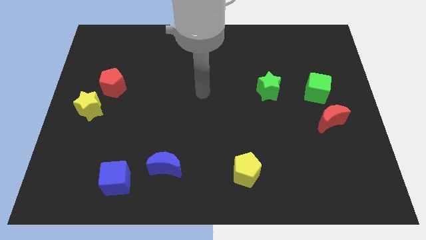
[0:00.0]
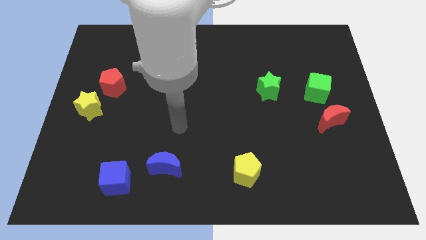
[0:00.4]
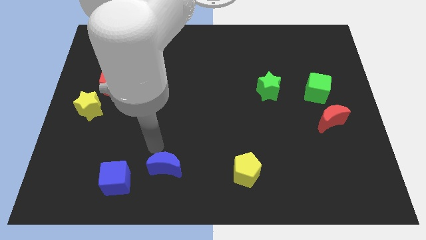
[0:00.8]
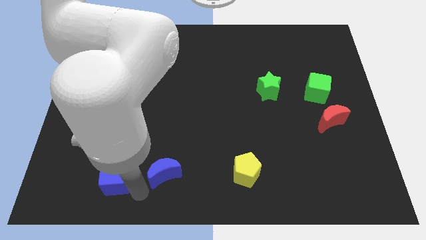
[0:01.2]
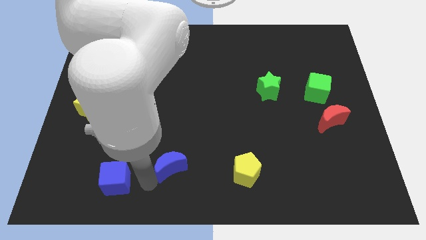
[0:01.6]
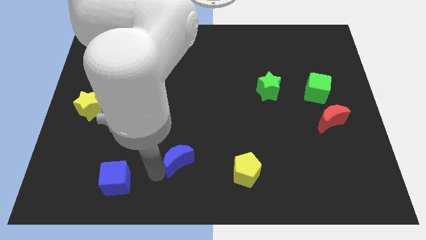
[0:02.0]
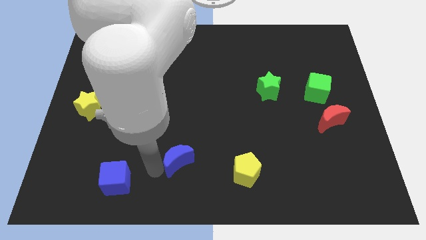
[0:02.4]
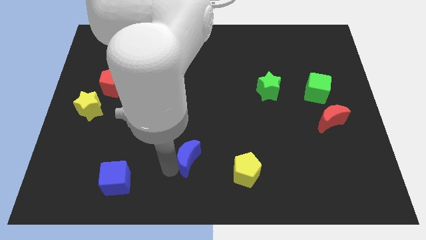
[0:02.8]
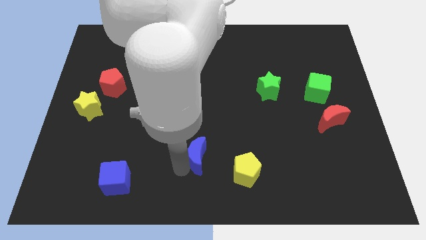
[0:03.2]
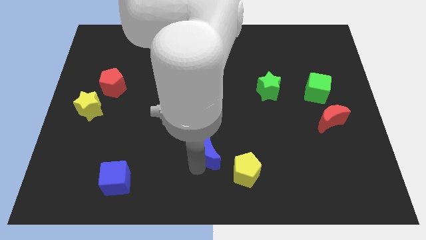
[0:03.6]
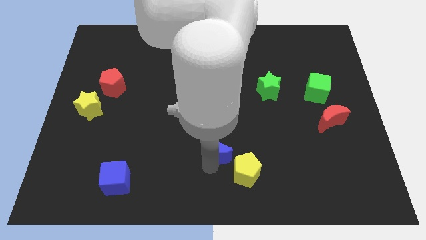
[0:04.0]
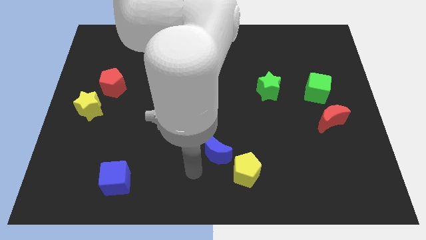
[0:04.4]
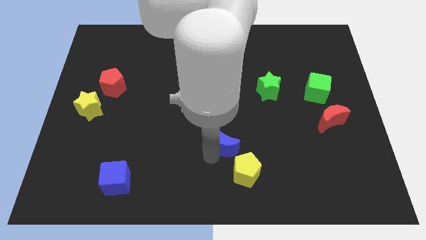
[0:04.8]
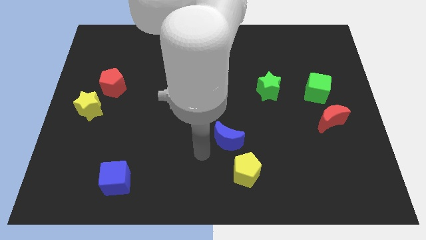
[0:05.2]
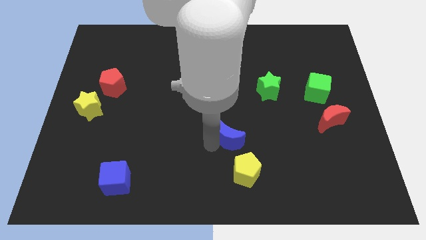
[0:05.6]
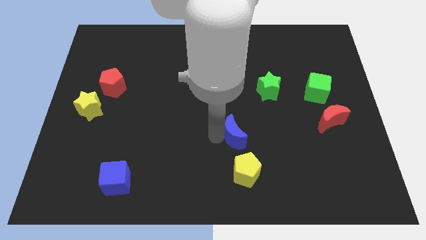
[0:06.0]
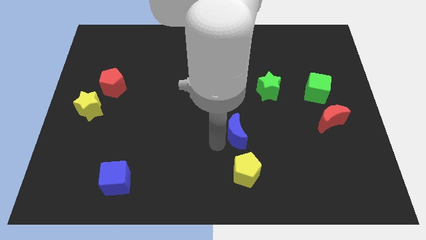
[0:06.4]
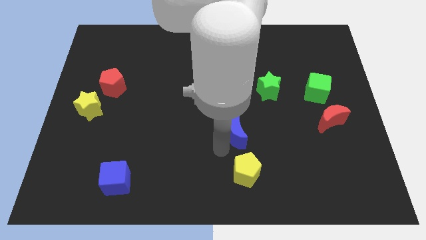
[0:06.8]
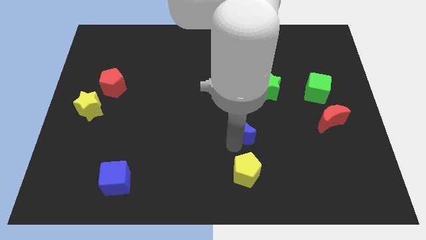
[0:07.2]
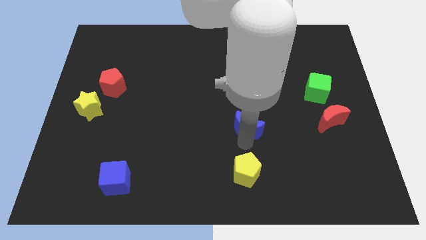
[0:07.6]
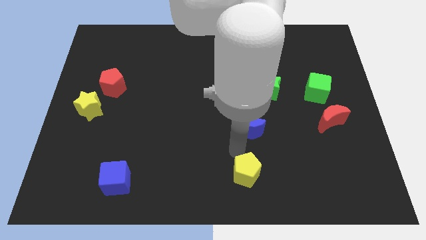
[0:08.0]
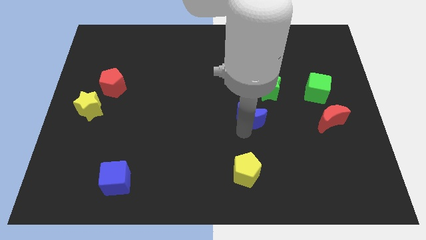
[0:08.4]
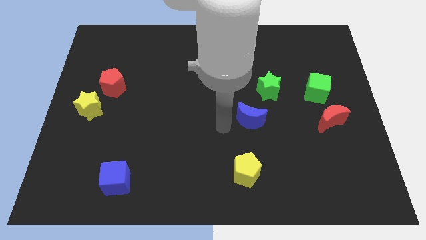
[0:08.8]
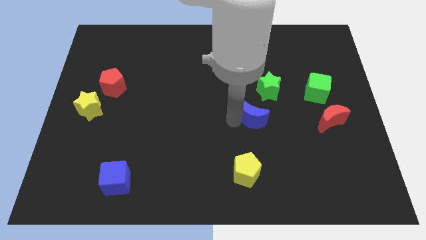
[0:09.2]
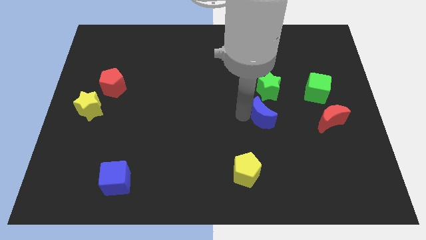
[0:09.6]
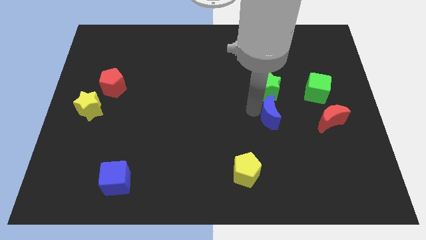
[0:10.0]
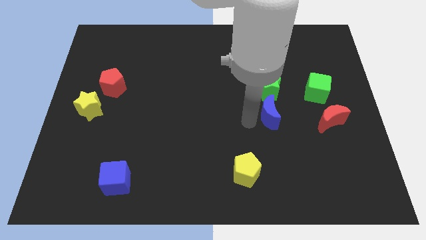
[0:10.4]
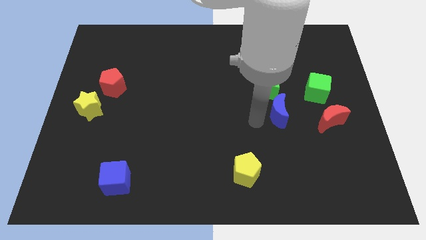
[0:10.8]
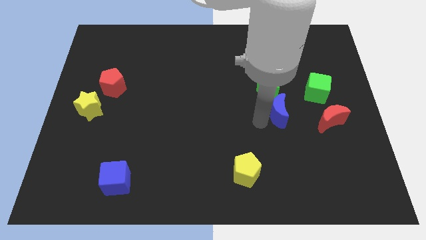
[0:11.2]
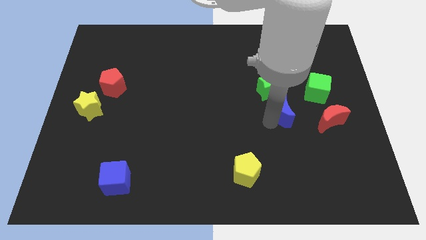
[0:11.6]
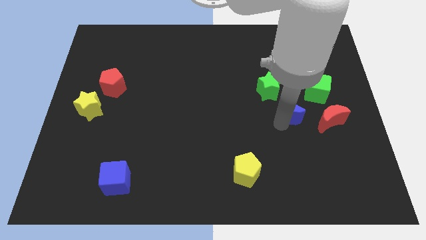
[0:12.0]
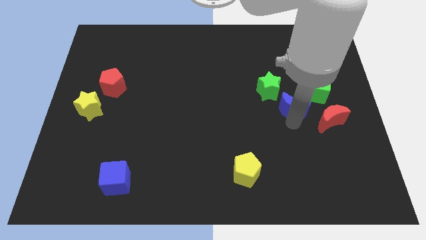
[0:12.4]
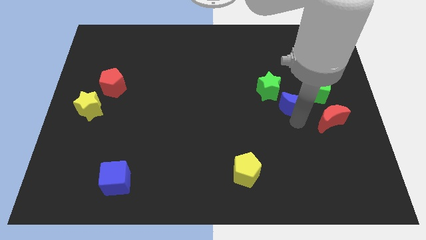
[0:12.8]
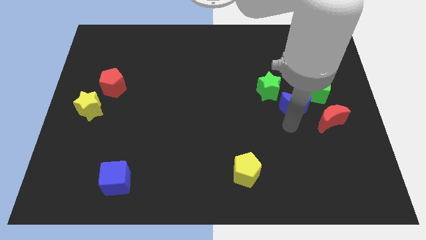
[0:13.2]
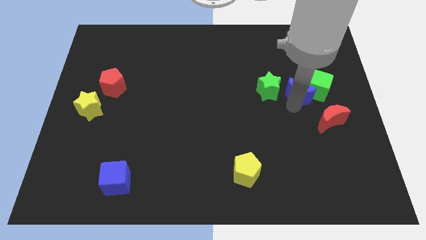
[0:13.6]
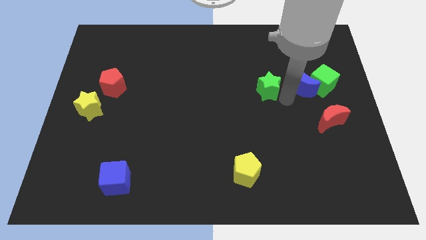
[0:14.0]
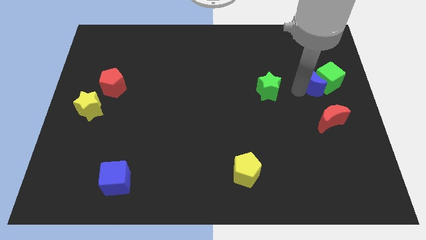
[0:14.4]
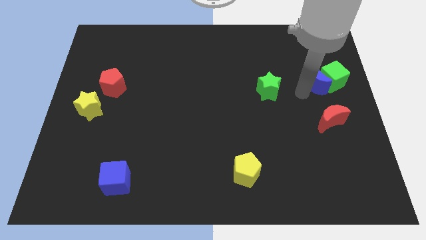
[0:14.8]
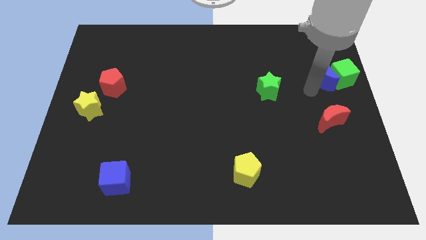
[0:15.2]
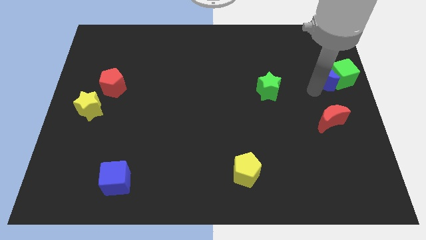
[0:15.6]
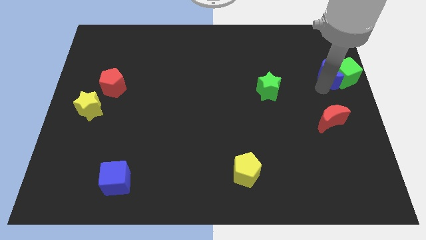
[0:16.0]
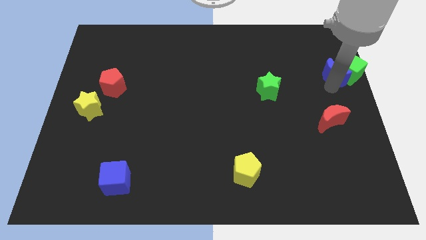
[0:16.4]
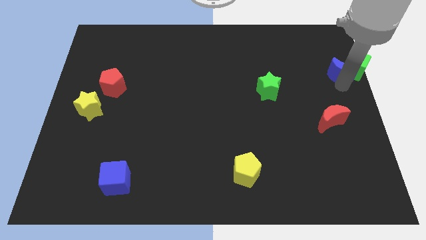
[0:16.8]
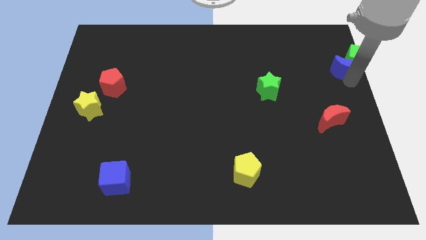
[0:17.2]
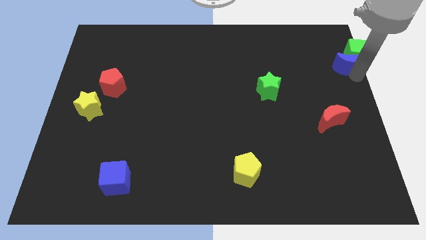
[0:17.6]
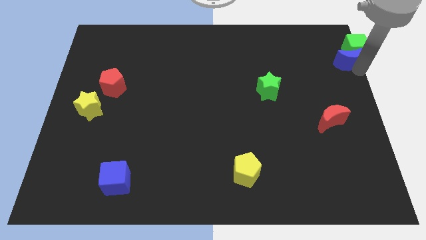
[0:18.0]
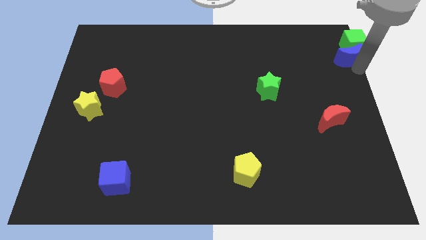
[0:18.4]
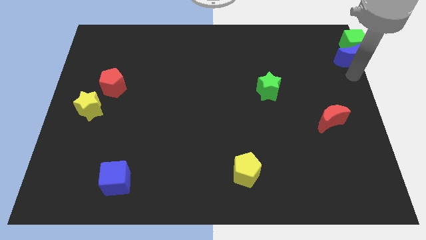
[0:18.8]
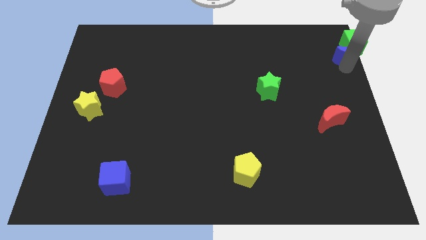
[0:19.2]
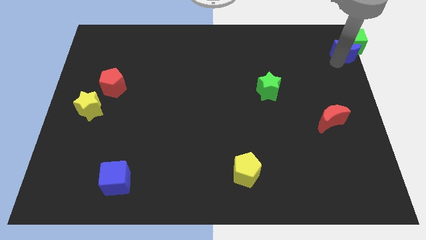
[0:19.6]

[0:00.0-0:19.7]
slide the blue moon to the top right

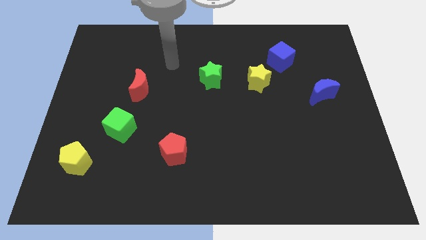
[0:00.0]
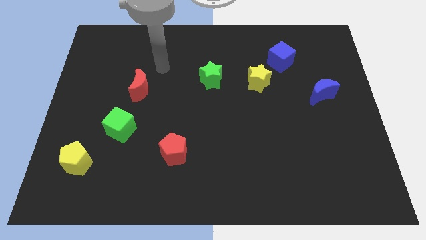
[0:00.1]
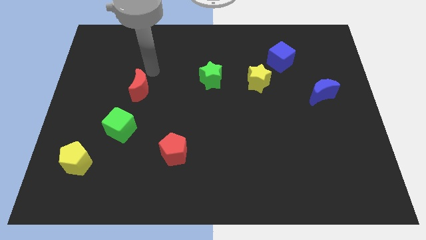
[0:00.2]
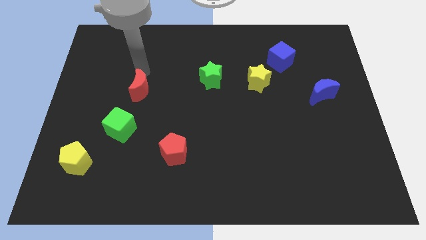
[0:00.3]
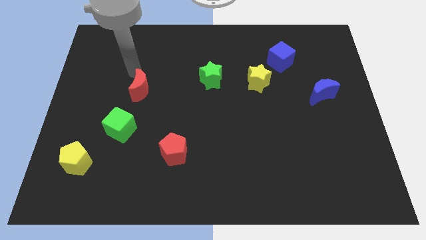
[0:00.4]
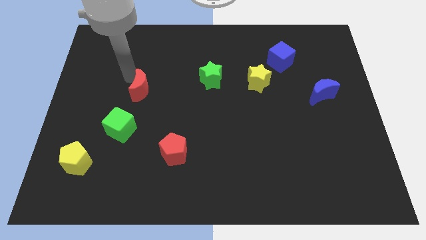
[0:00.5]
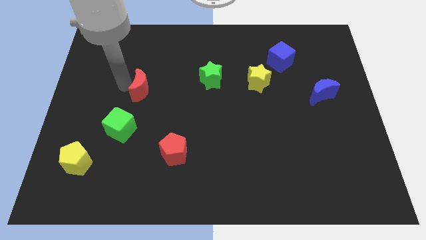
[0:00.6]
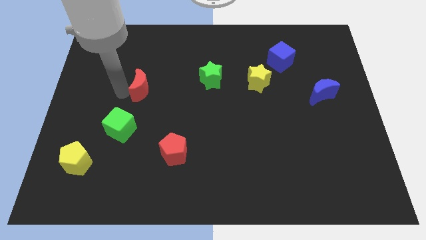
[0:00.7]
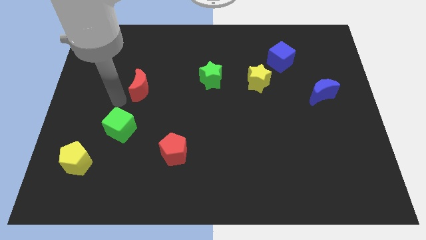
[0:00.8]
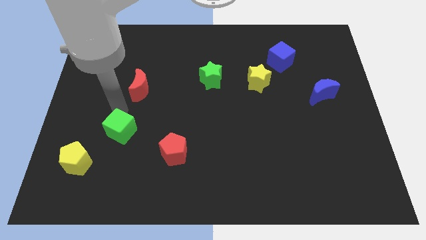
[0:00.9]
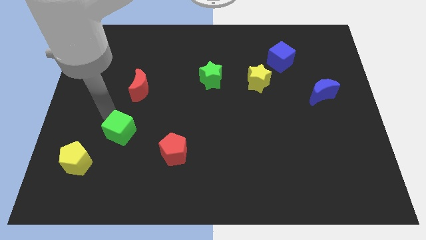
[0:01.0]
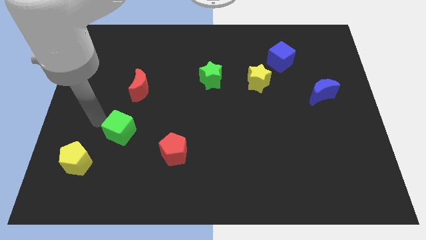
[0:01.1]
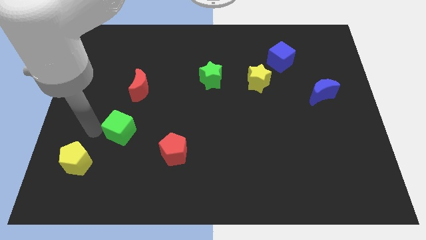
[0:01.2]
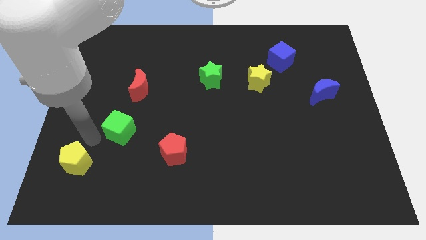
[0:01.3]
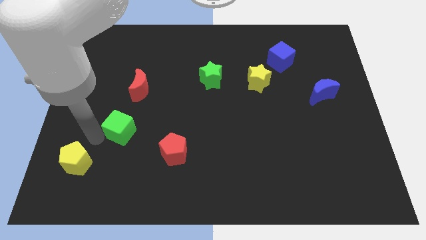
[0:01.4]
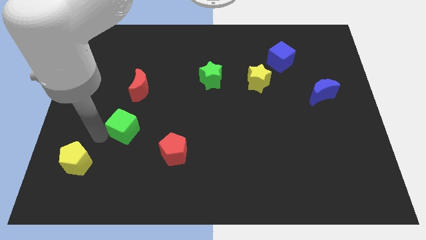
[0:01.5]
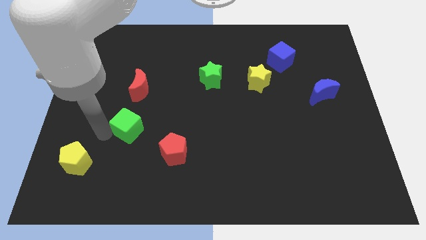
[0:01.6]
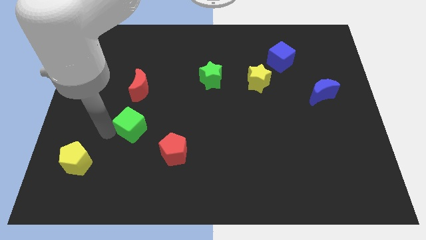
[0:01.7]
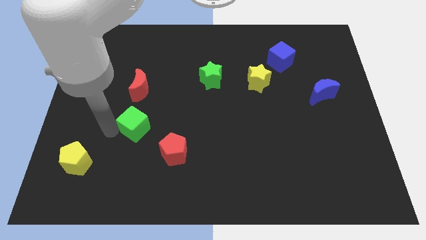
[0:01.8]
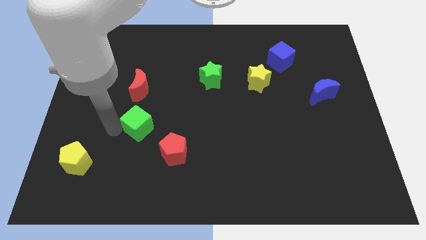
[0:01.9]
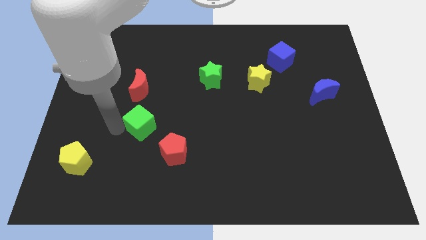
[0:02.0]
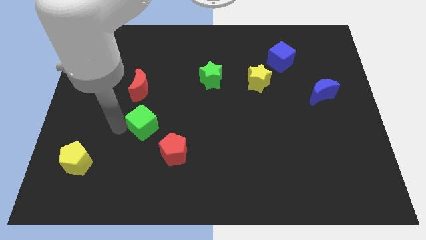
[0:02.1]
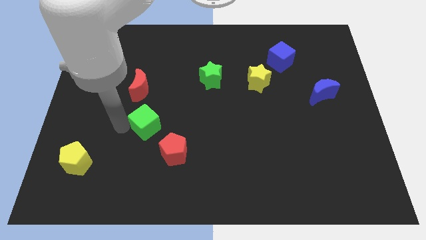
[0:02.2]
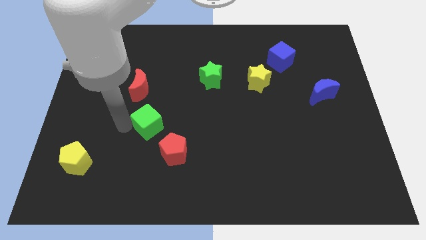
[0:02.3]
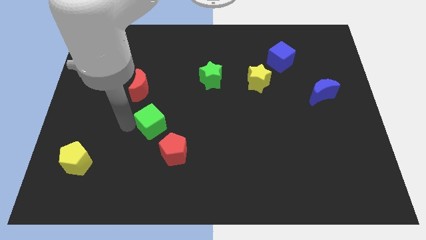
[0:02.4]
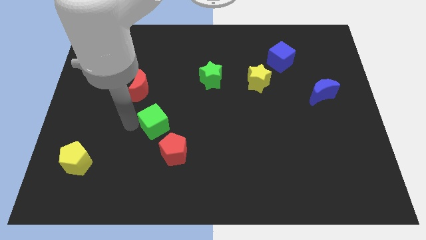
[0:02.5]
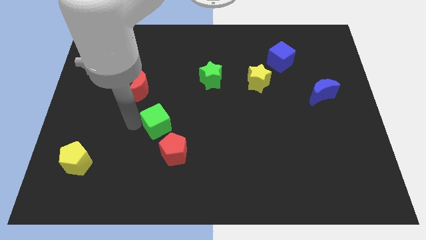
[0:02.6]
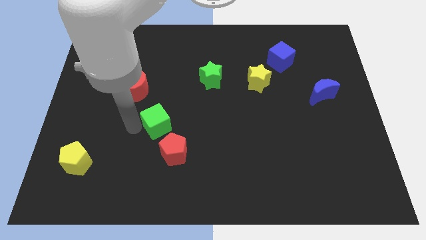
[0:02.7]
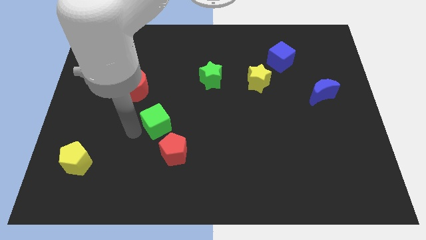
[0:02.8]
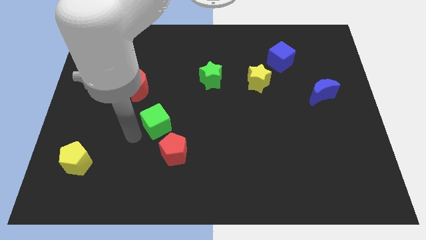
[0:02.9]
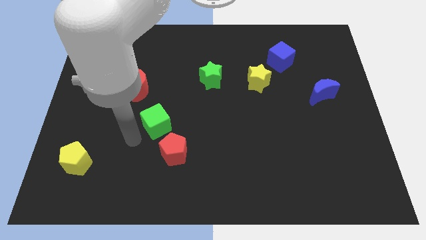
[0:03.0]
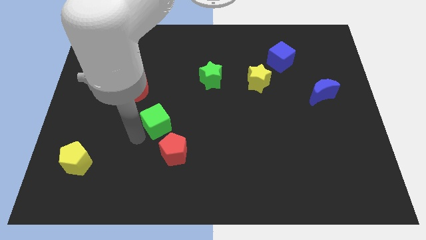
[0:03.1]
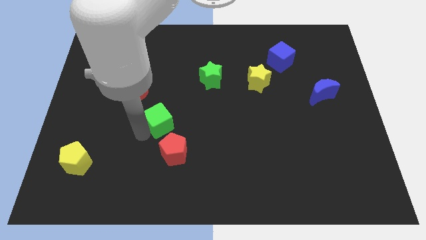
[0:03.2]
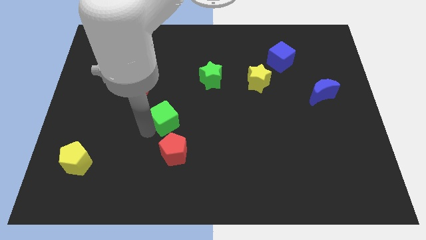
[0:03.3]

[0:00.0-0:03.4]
slide the green cube to the center of the board
